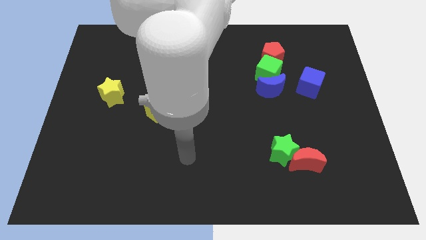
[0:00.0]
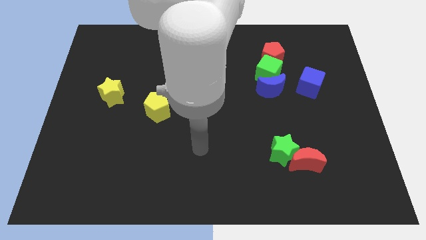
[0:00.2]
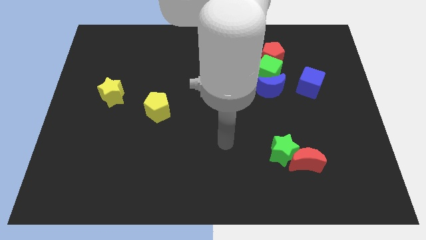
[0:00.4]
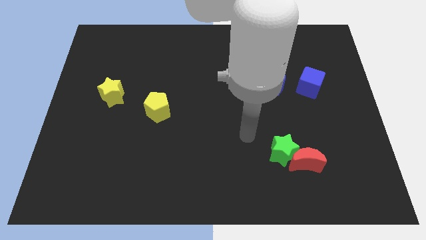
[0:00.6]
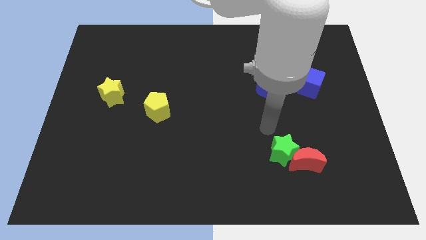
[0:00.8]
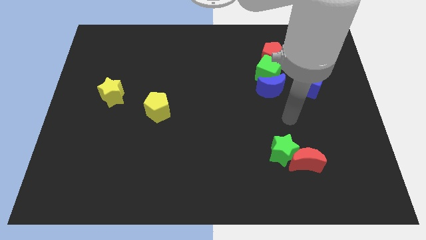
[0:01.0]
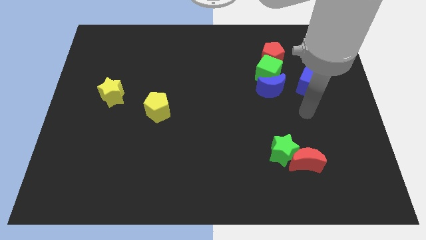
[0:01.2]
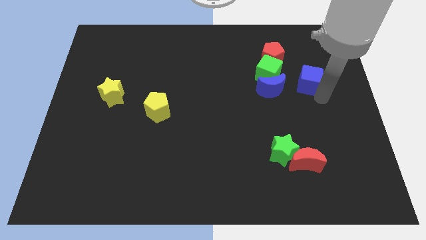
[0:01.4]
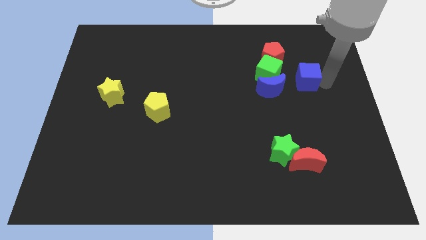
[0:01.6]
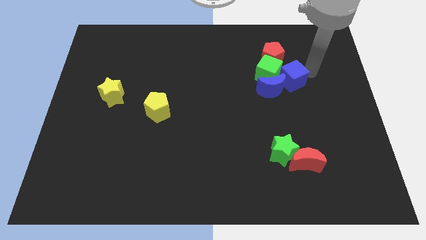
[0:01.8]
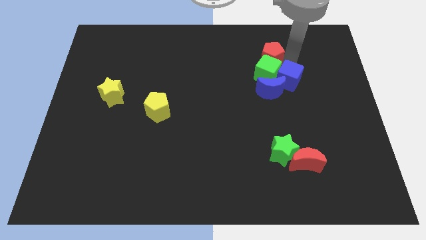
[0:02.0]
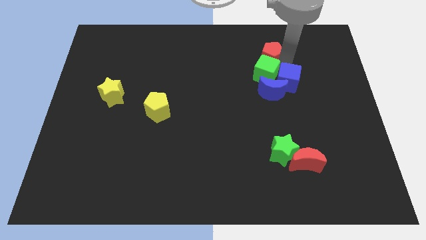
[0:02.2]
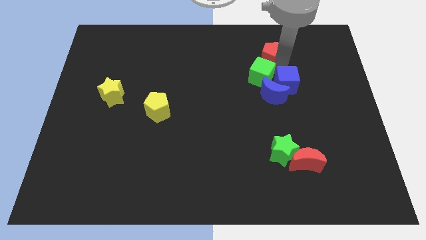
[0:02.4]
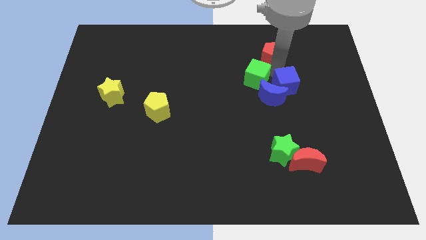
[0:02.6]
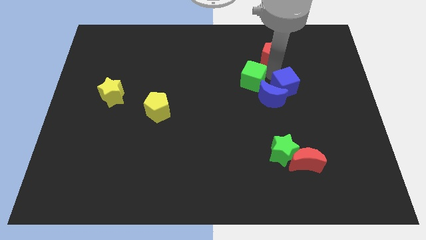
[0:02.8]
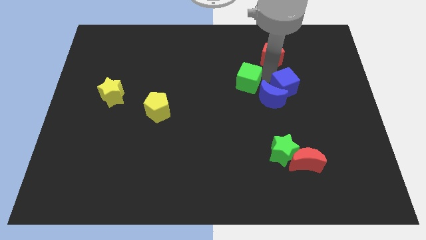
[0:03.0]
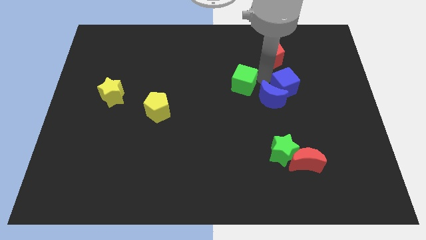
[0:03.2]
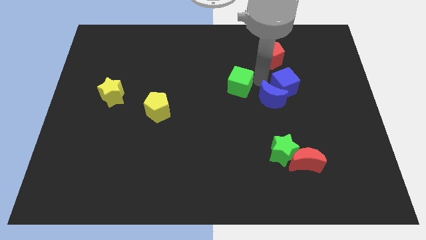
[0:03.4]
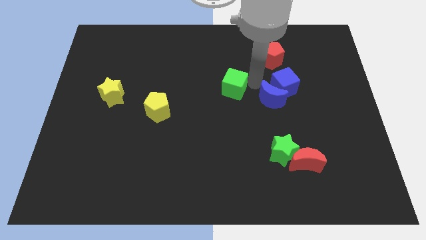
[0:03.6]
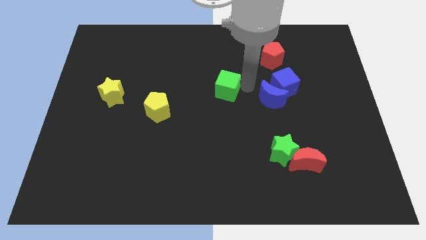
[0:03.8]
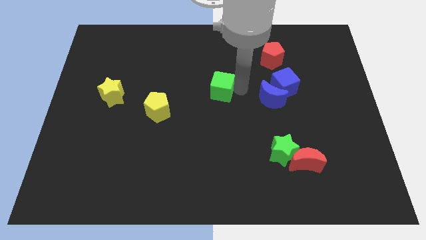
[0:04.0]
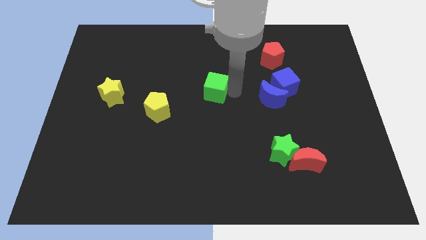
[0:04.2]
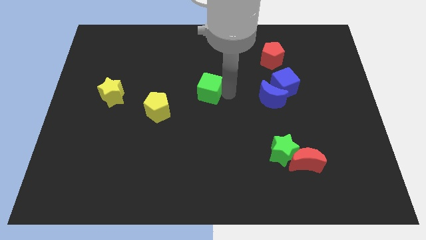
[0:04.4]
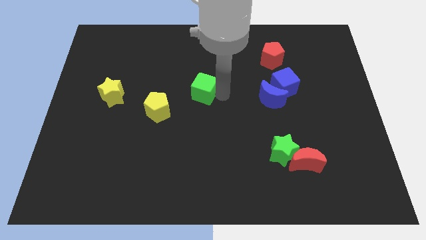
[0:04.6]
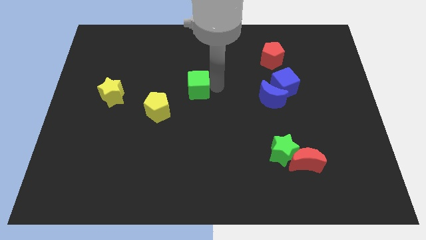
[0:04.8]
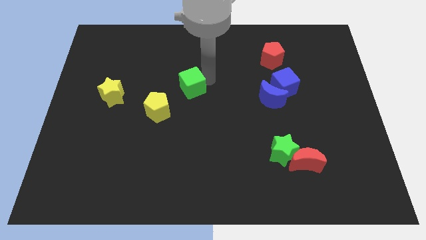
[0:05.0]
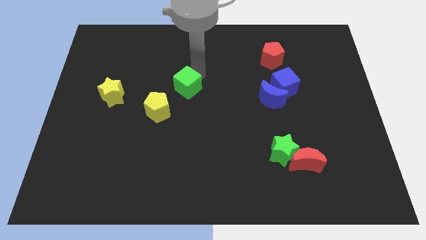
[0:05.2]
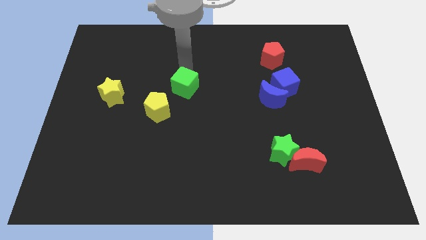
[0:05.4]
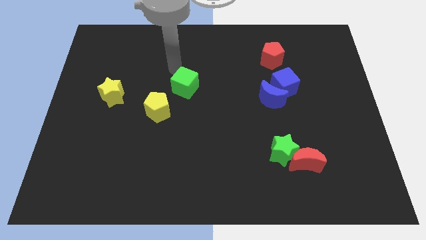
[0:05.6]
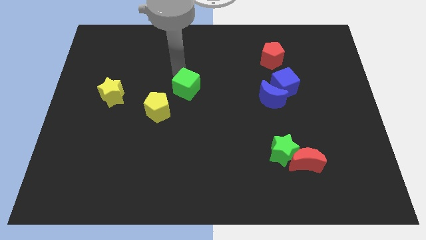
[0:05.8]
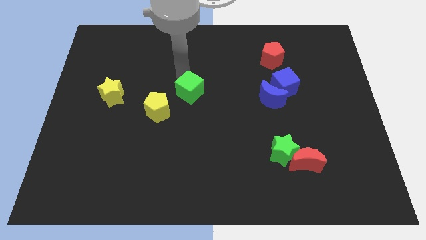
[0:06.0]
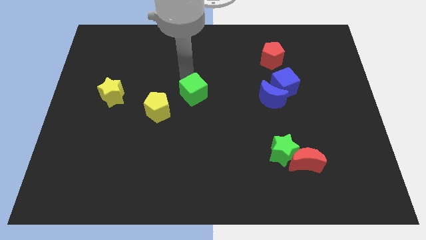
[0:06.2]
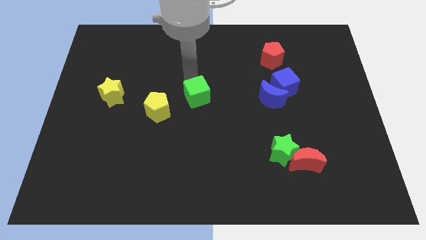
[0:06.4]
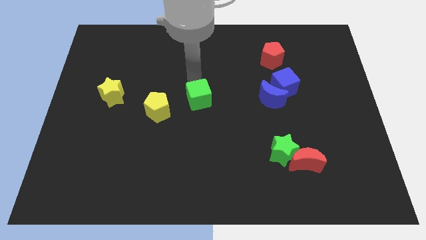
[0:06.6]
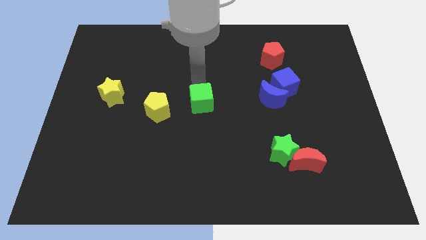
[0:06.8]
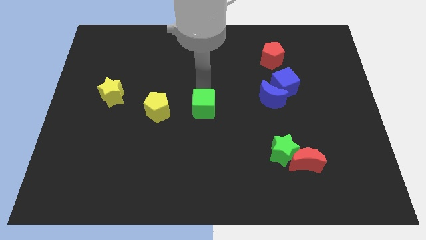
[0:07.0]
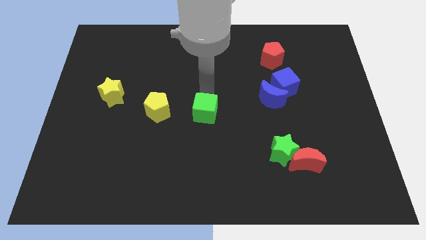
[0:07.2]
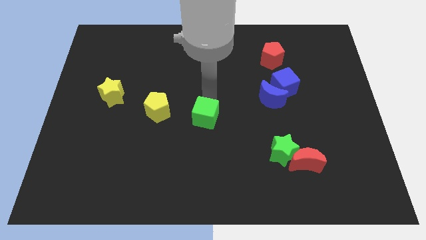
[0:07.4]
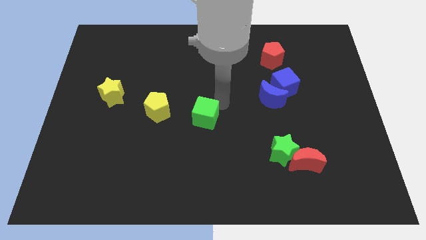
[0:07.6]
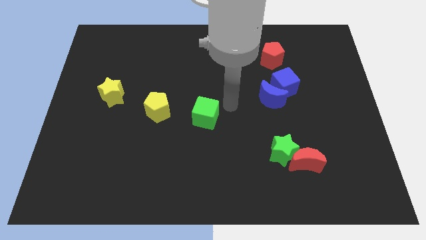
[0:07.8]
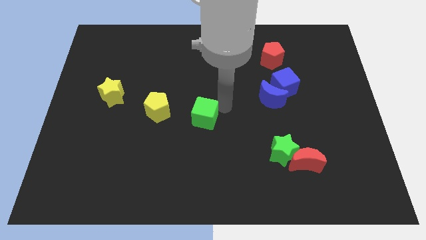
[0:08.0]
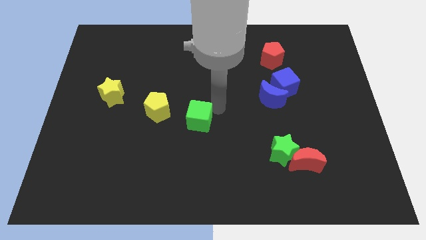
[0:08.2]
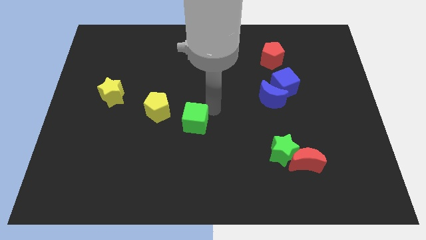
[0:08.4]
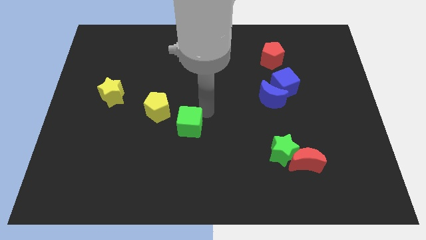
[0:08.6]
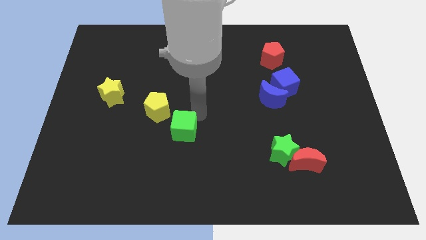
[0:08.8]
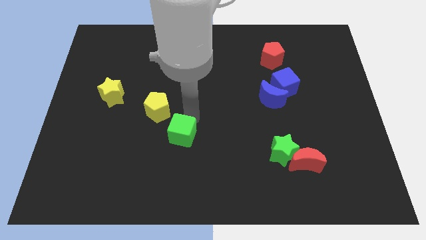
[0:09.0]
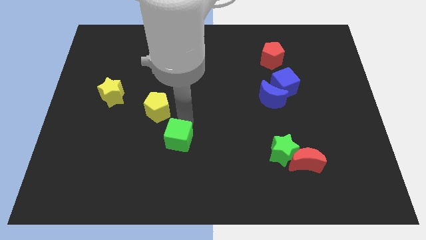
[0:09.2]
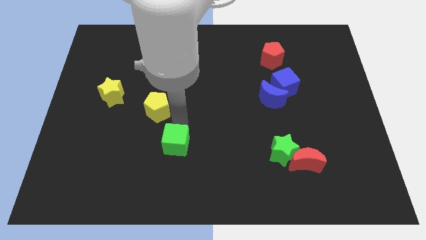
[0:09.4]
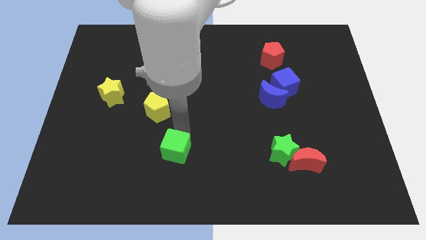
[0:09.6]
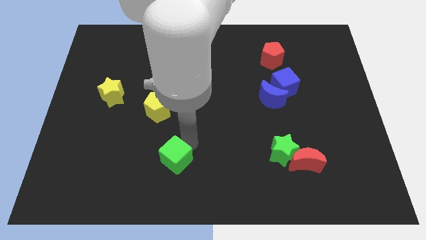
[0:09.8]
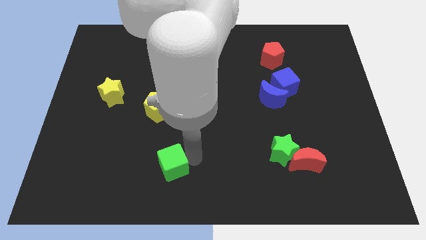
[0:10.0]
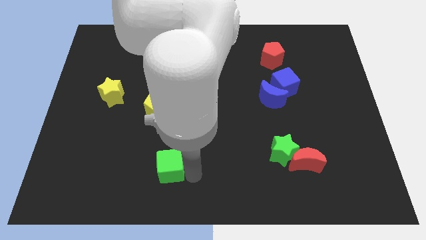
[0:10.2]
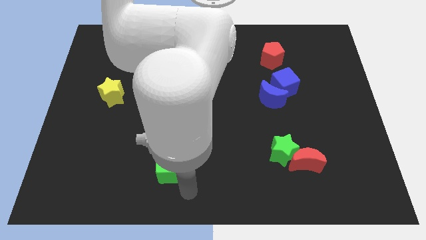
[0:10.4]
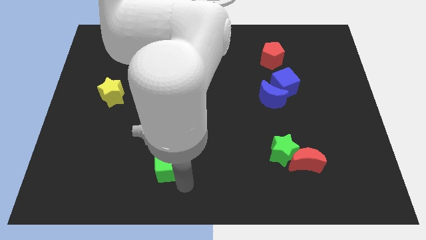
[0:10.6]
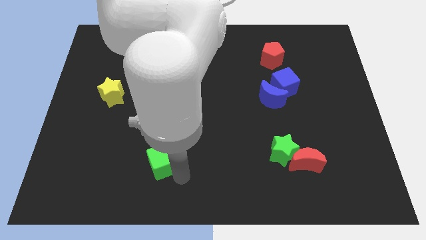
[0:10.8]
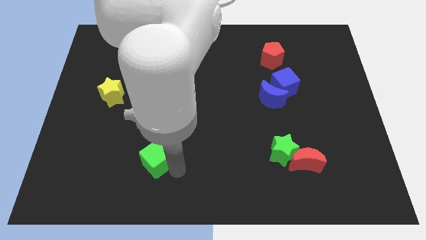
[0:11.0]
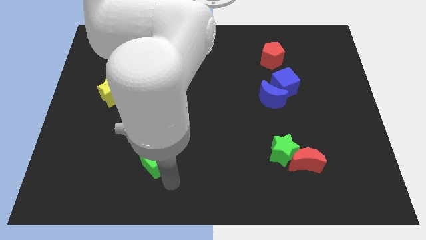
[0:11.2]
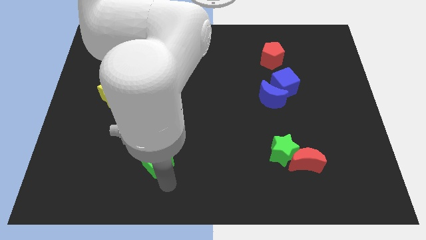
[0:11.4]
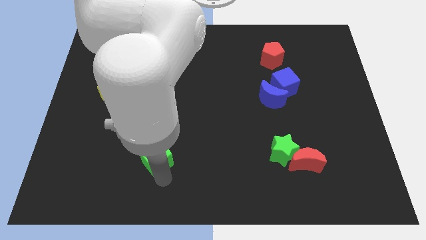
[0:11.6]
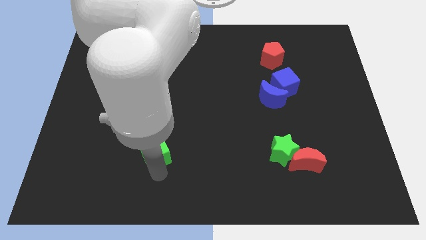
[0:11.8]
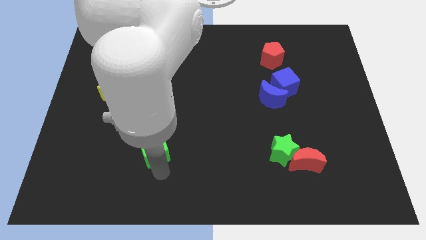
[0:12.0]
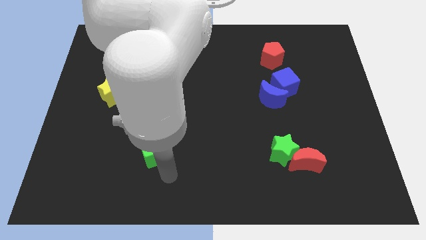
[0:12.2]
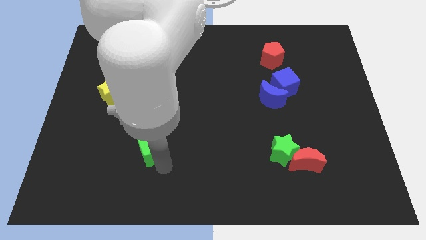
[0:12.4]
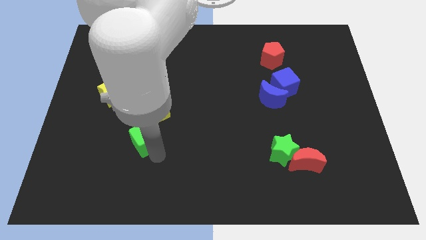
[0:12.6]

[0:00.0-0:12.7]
slide the green cube diagonally down and to the left of the yellow pentagon

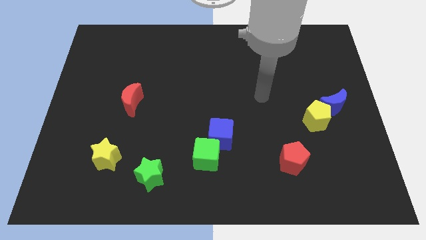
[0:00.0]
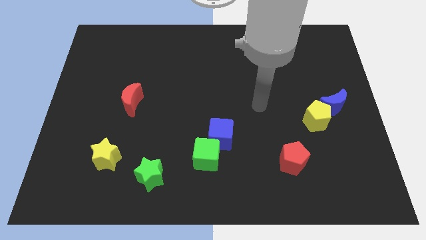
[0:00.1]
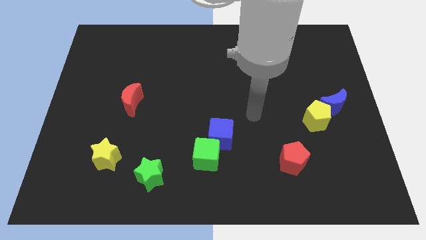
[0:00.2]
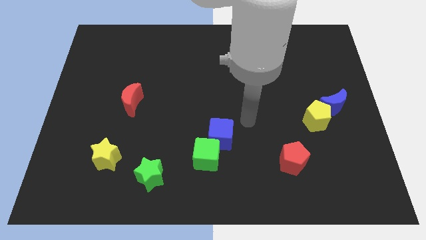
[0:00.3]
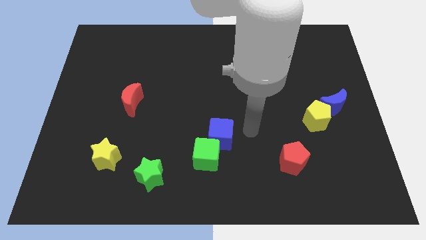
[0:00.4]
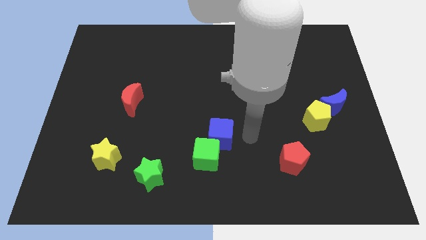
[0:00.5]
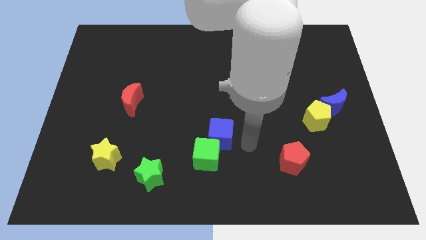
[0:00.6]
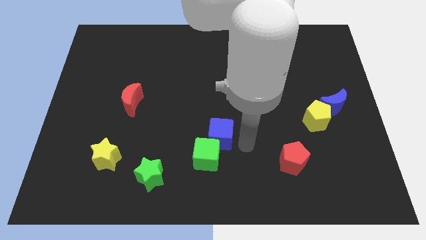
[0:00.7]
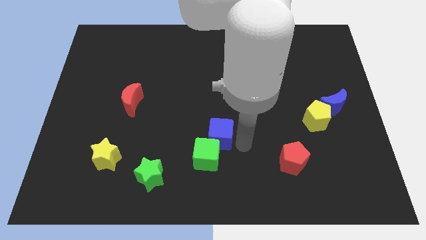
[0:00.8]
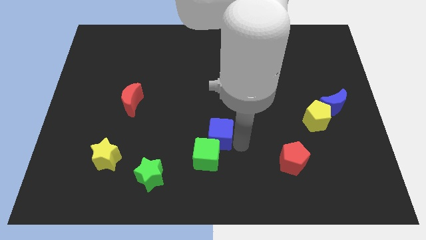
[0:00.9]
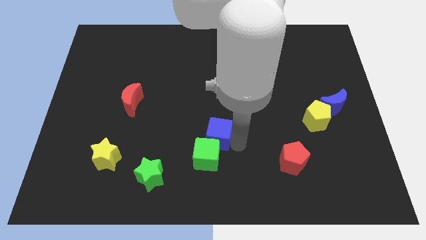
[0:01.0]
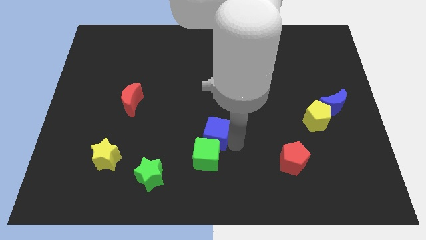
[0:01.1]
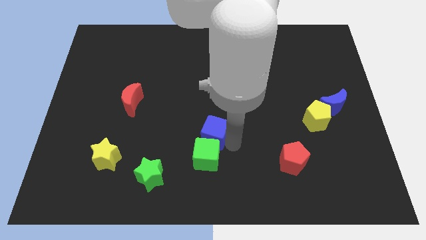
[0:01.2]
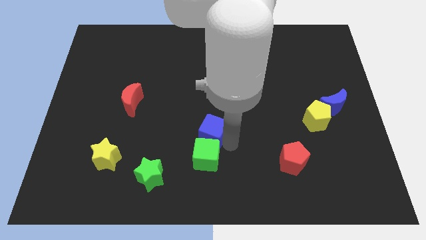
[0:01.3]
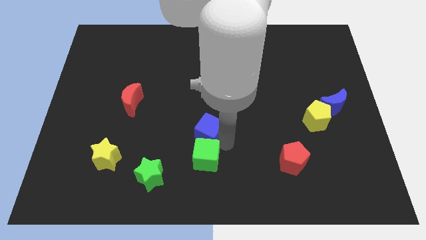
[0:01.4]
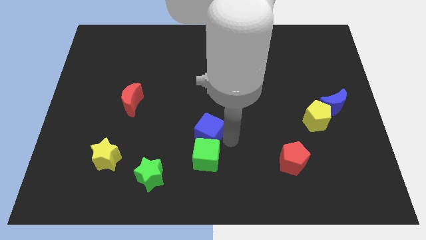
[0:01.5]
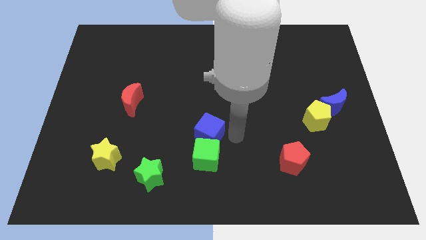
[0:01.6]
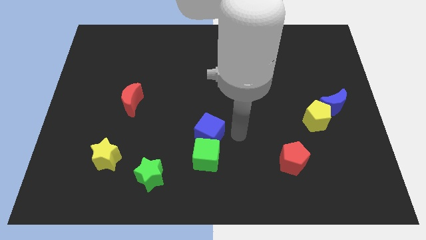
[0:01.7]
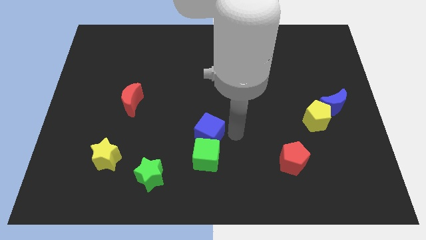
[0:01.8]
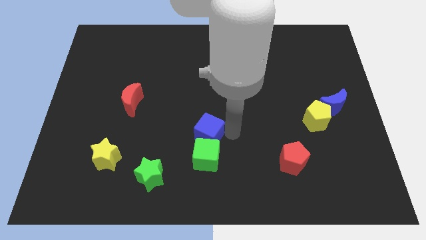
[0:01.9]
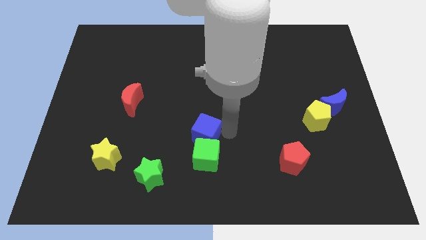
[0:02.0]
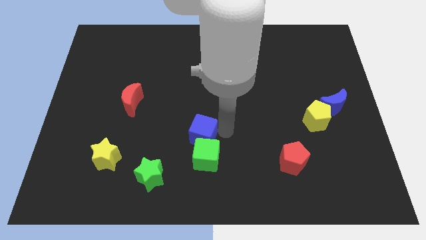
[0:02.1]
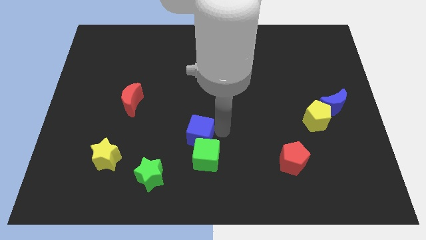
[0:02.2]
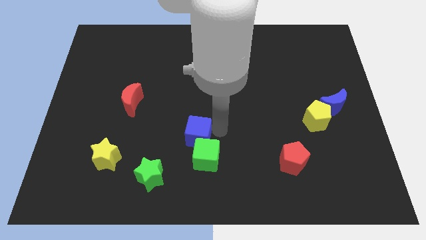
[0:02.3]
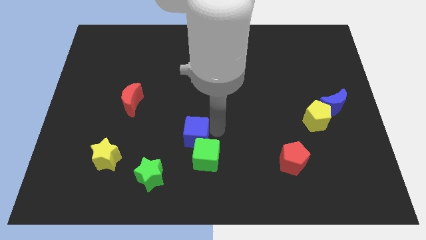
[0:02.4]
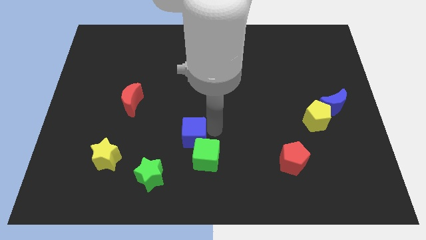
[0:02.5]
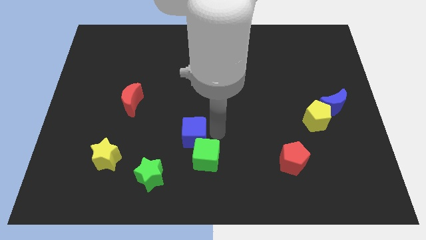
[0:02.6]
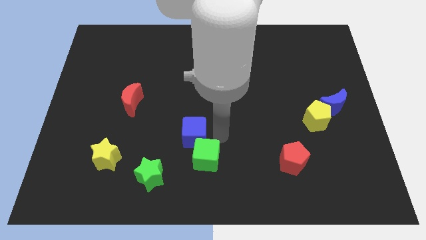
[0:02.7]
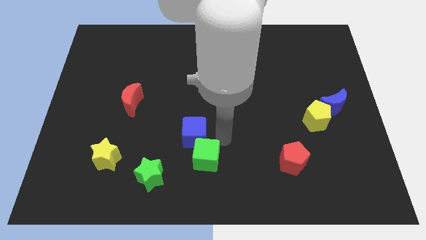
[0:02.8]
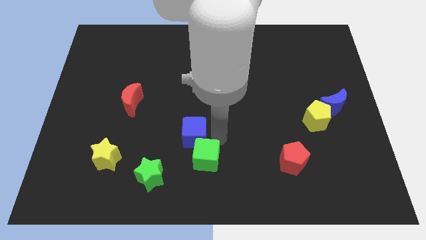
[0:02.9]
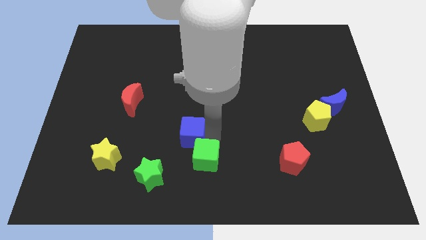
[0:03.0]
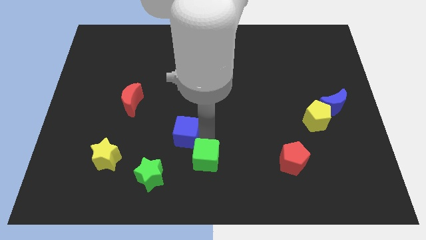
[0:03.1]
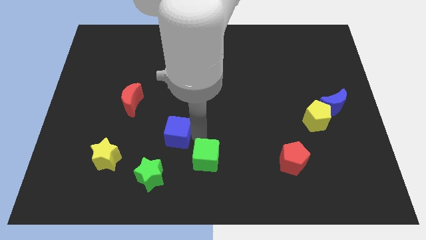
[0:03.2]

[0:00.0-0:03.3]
move the blue cube to the top of the green star
